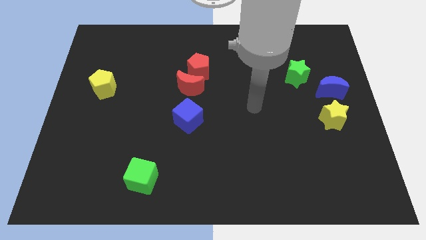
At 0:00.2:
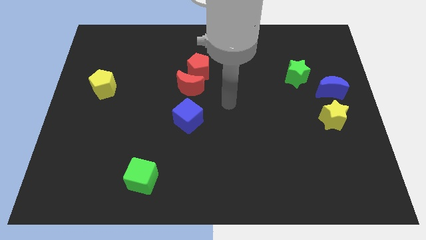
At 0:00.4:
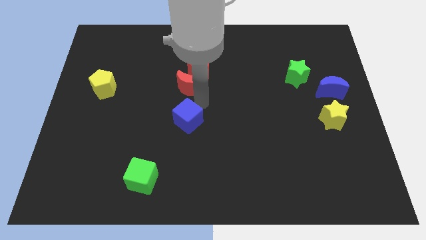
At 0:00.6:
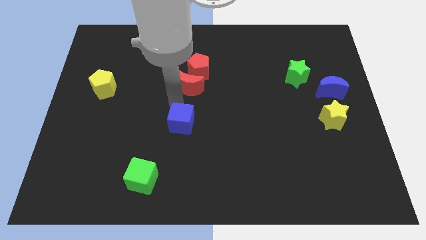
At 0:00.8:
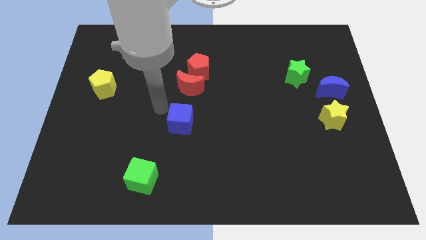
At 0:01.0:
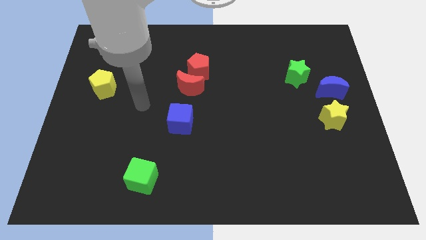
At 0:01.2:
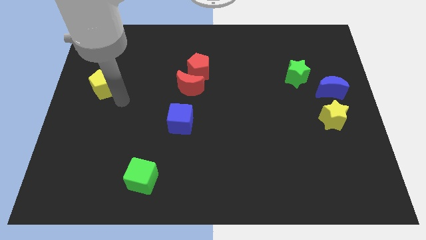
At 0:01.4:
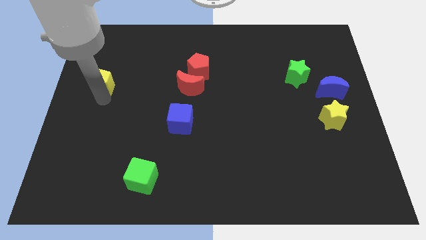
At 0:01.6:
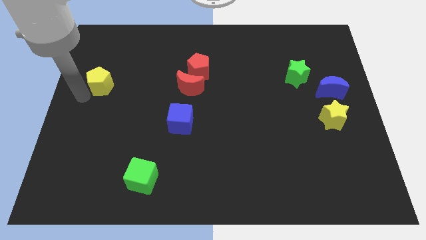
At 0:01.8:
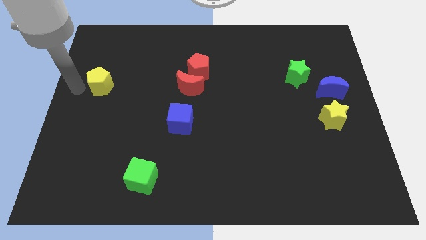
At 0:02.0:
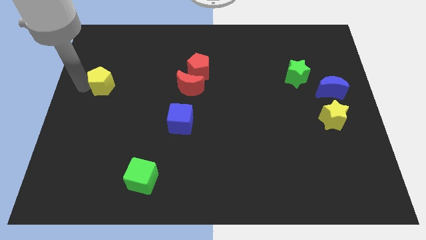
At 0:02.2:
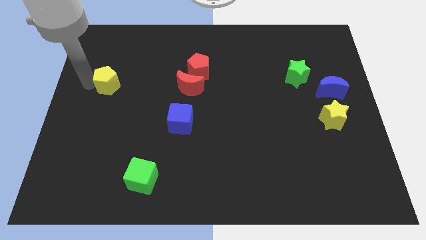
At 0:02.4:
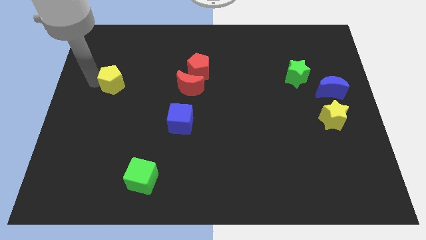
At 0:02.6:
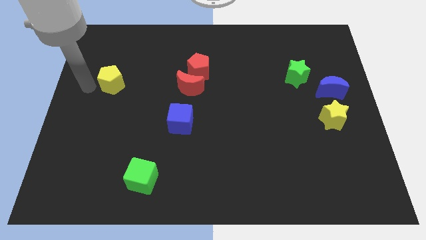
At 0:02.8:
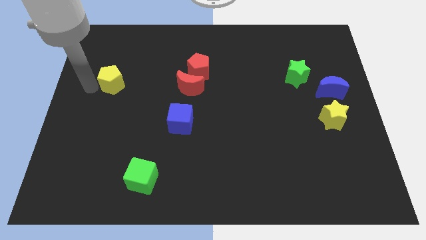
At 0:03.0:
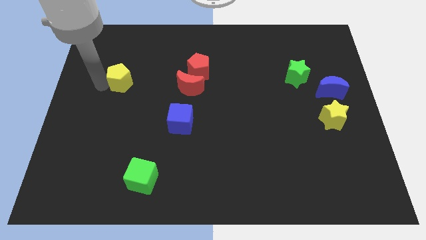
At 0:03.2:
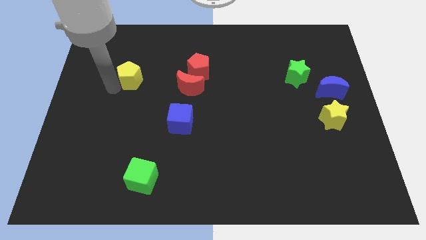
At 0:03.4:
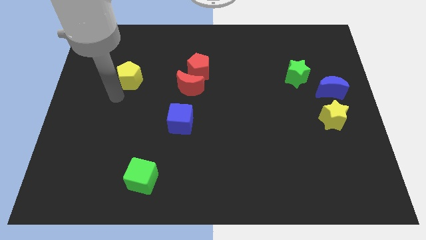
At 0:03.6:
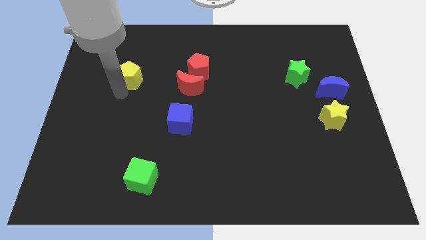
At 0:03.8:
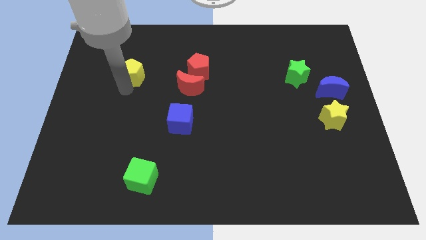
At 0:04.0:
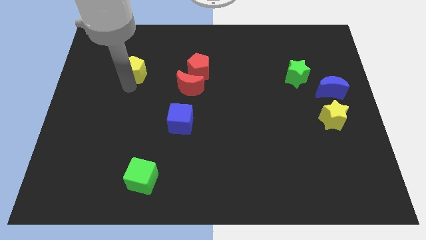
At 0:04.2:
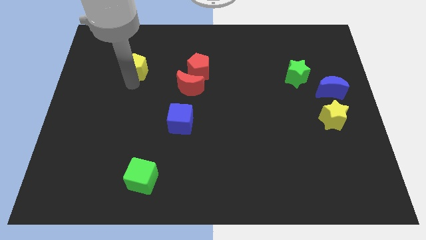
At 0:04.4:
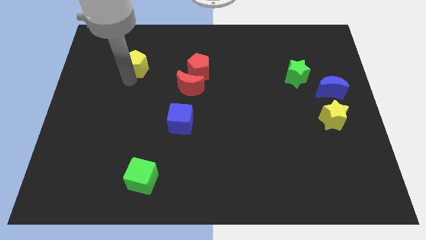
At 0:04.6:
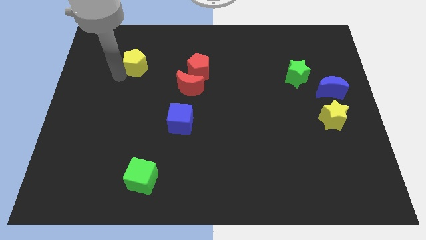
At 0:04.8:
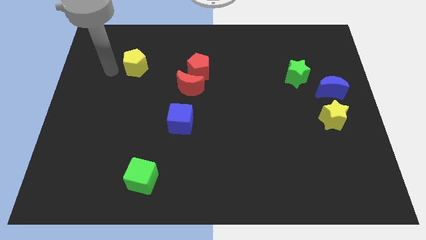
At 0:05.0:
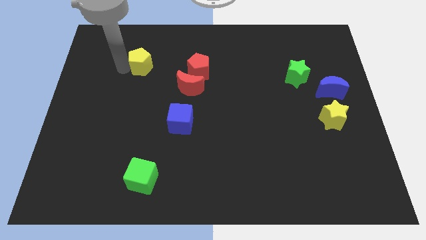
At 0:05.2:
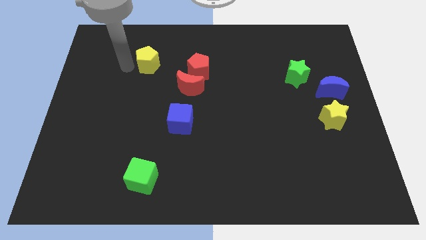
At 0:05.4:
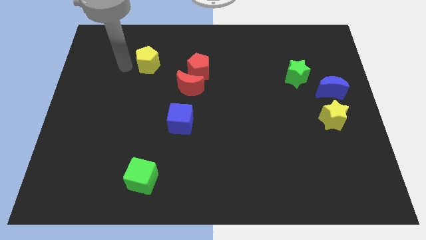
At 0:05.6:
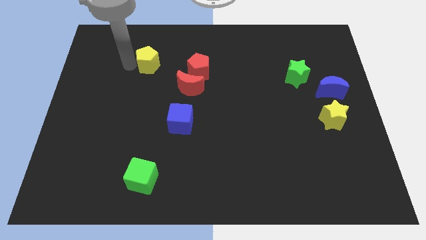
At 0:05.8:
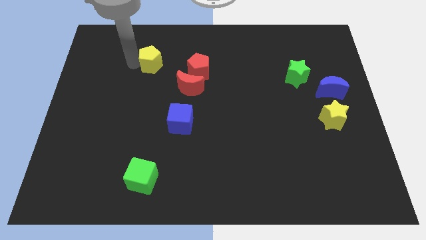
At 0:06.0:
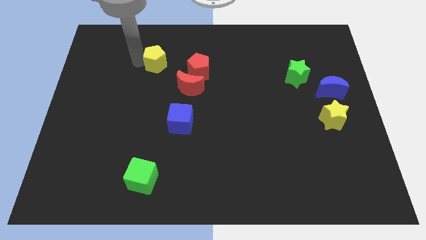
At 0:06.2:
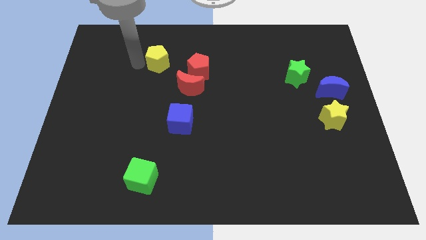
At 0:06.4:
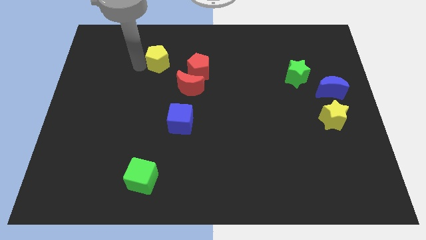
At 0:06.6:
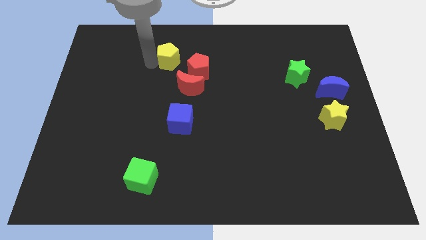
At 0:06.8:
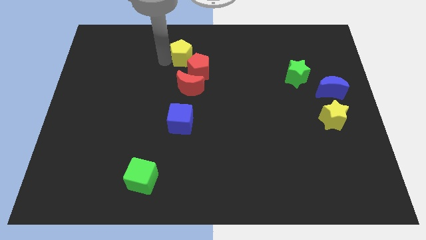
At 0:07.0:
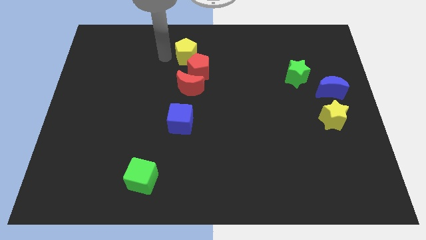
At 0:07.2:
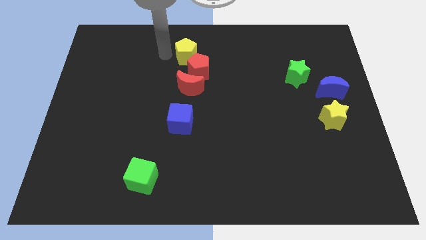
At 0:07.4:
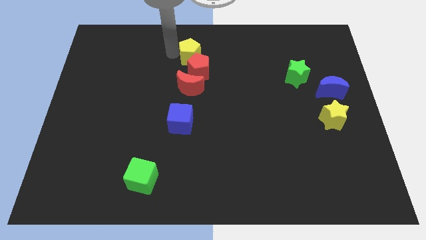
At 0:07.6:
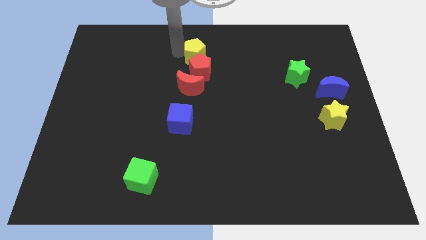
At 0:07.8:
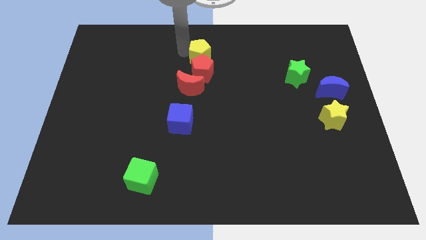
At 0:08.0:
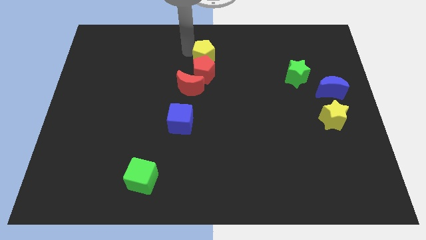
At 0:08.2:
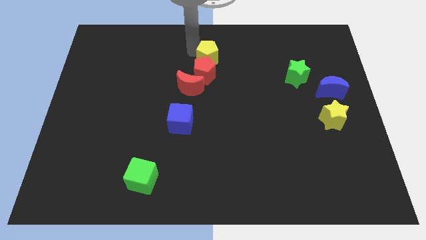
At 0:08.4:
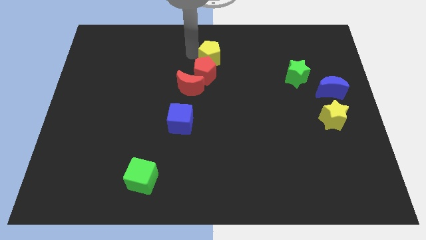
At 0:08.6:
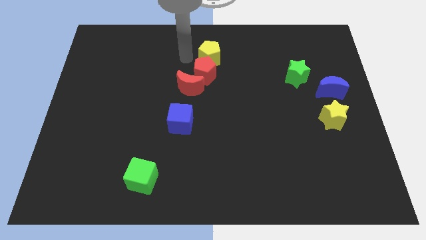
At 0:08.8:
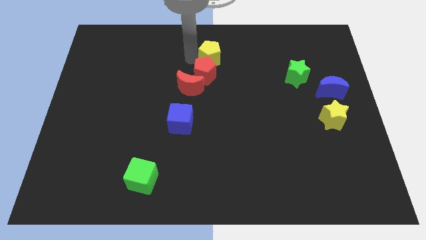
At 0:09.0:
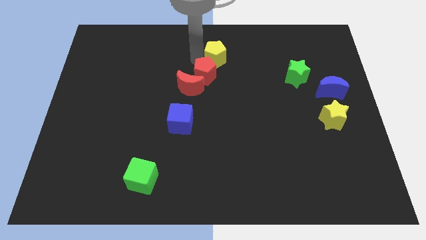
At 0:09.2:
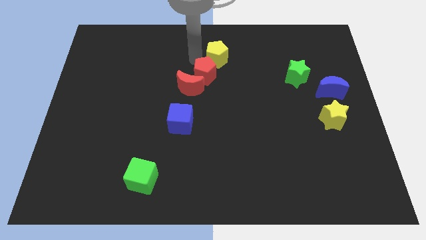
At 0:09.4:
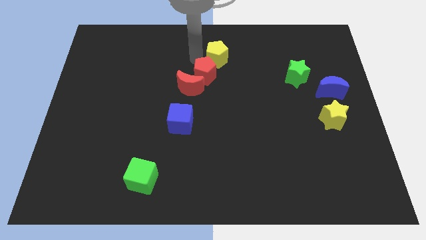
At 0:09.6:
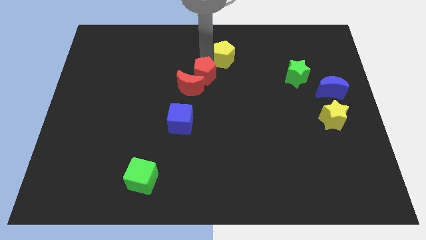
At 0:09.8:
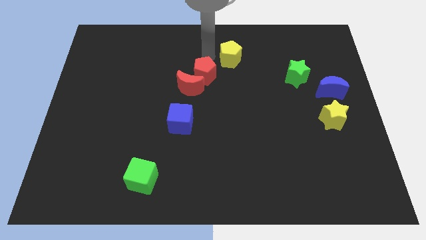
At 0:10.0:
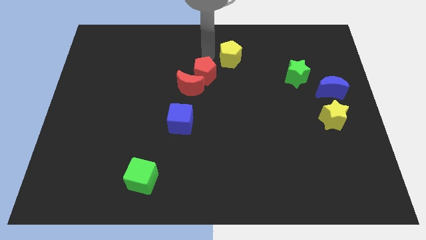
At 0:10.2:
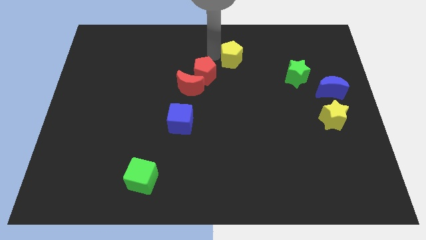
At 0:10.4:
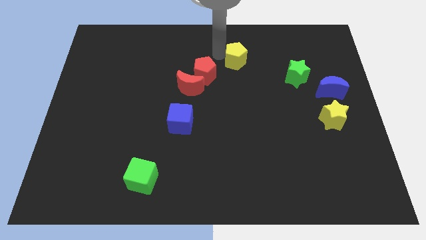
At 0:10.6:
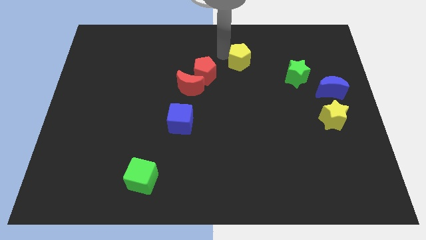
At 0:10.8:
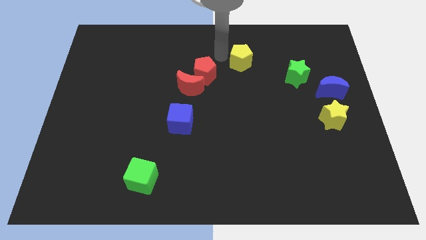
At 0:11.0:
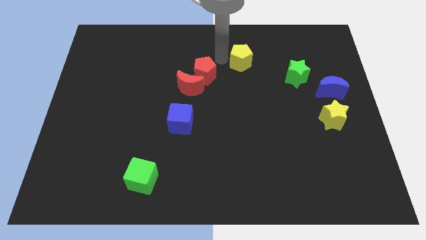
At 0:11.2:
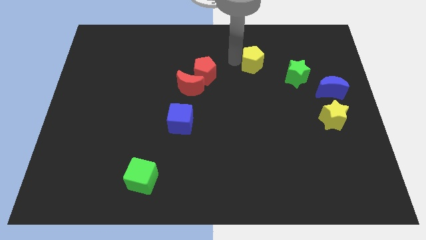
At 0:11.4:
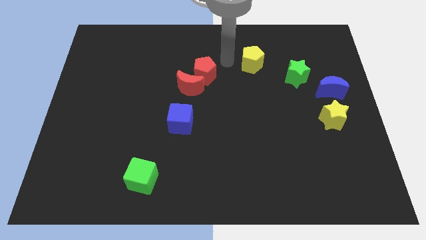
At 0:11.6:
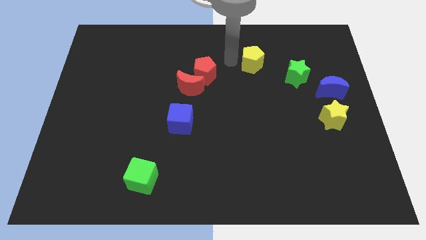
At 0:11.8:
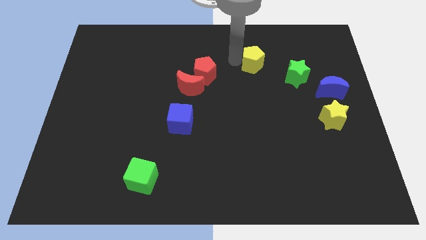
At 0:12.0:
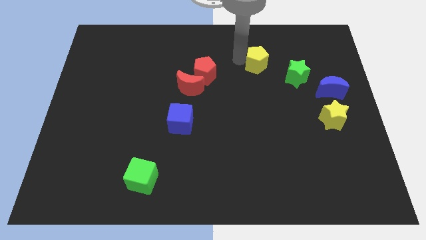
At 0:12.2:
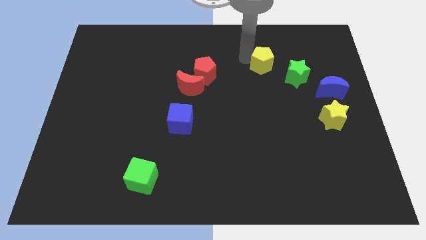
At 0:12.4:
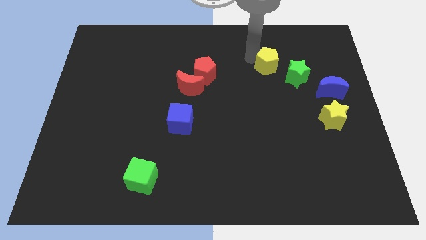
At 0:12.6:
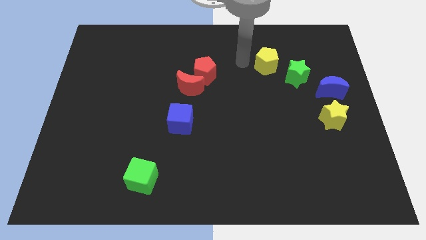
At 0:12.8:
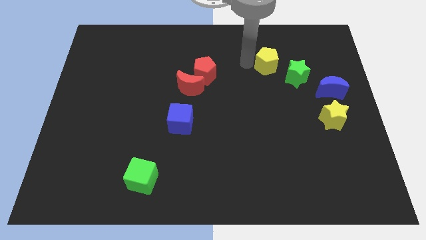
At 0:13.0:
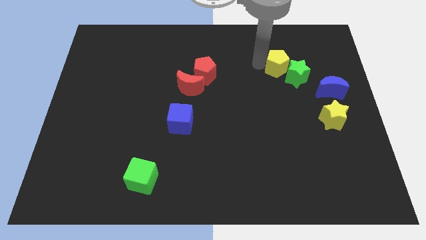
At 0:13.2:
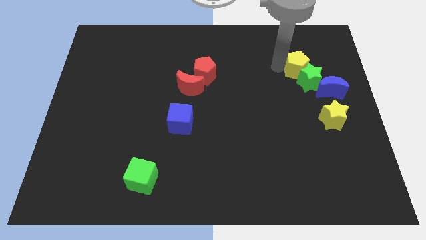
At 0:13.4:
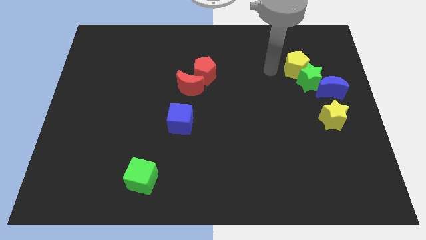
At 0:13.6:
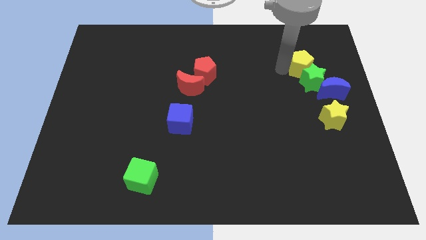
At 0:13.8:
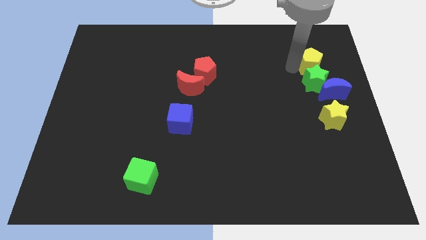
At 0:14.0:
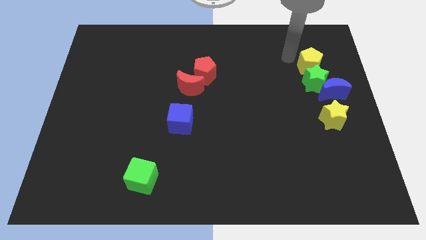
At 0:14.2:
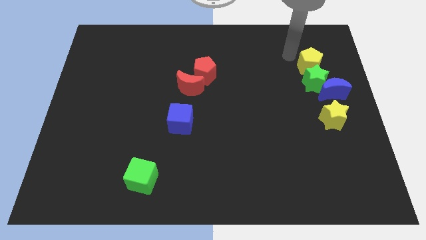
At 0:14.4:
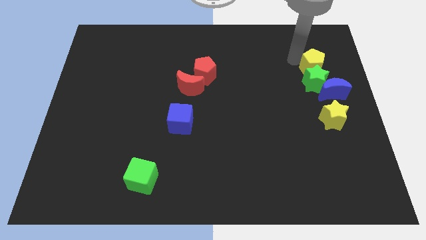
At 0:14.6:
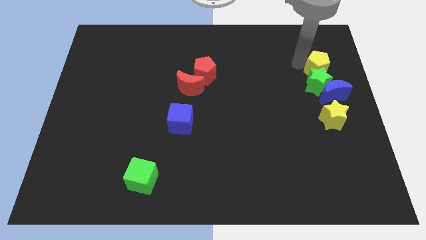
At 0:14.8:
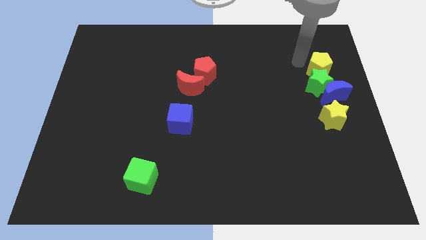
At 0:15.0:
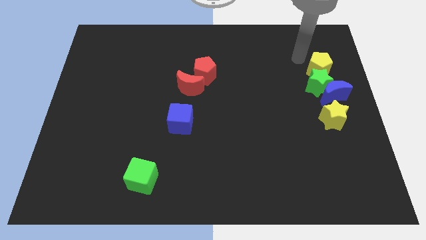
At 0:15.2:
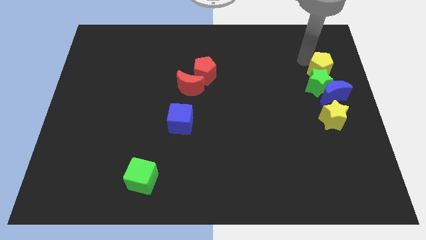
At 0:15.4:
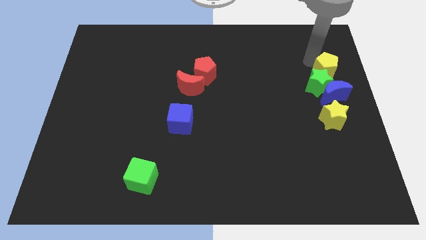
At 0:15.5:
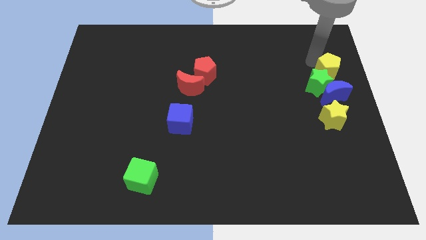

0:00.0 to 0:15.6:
push the yellow pentagon to the right side of the board
